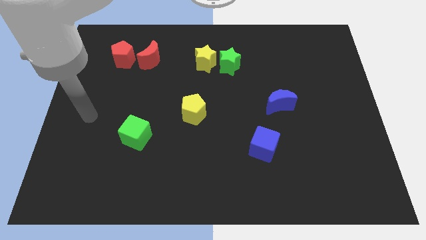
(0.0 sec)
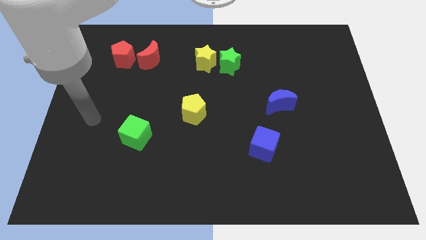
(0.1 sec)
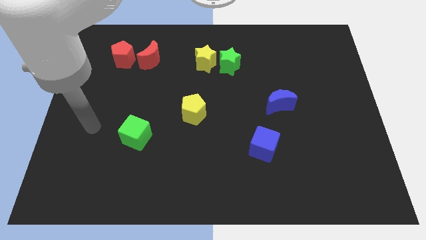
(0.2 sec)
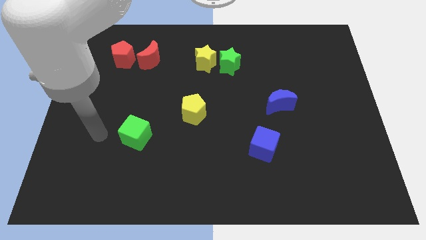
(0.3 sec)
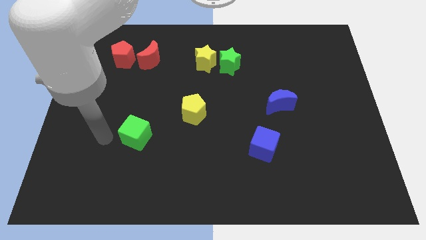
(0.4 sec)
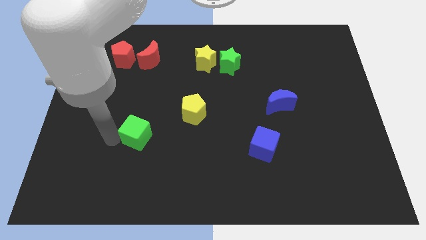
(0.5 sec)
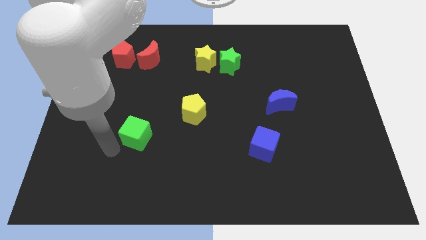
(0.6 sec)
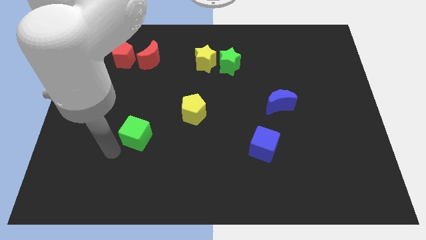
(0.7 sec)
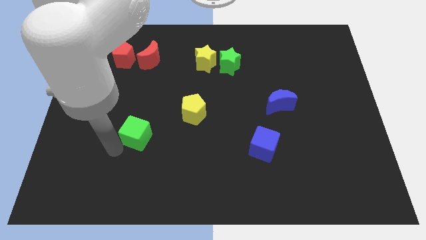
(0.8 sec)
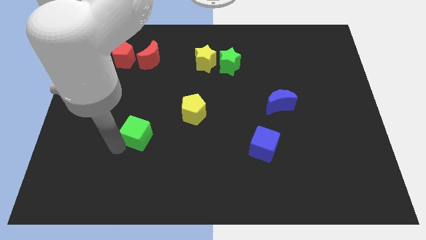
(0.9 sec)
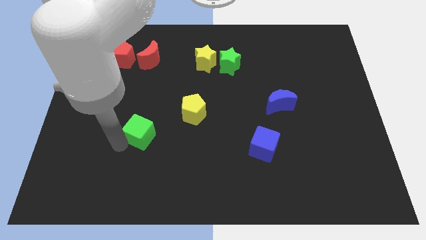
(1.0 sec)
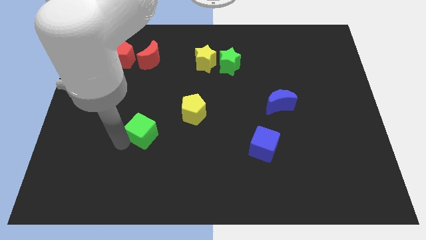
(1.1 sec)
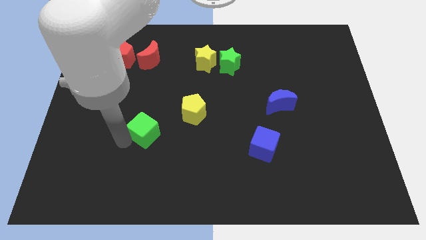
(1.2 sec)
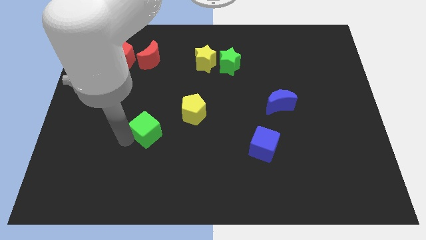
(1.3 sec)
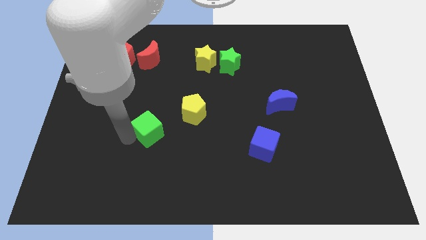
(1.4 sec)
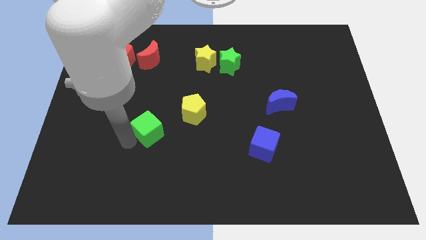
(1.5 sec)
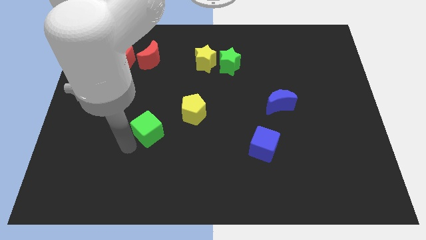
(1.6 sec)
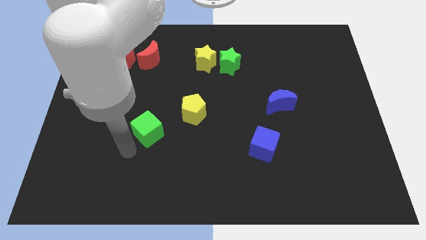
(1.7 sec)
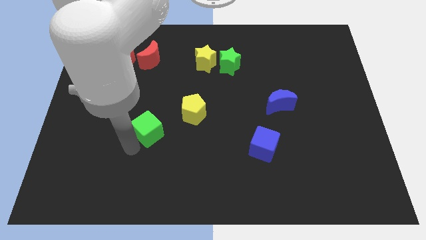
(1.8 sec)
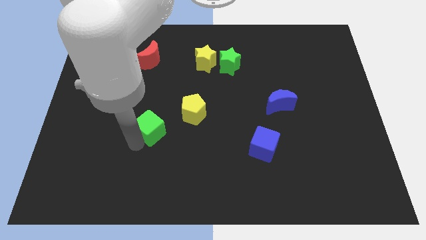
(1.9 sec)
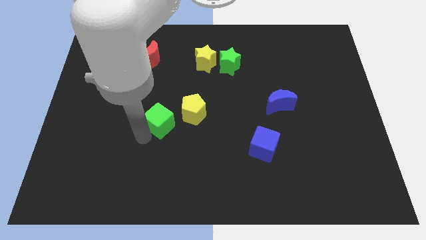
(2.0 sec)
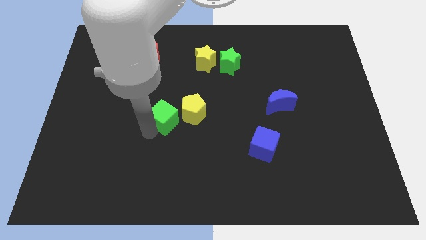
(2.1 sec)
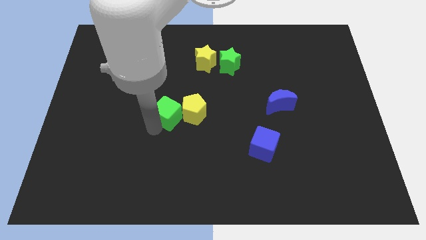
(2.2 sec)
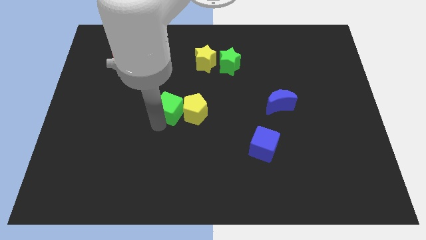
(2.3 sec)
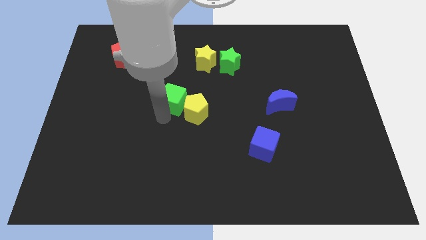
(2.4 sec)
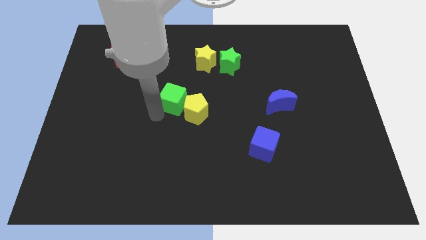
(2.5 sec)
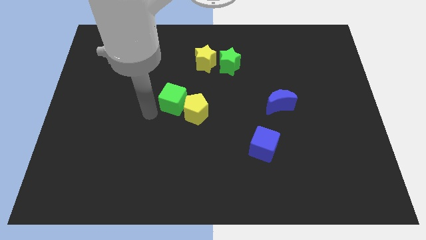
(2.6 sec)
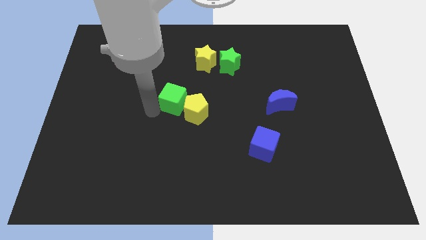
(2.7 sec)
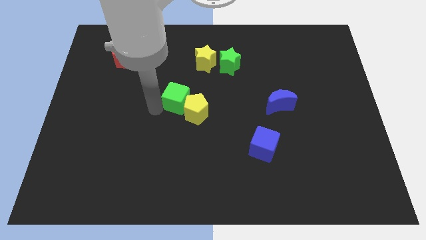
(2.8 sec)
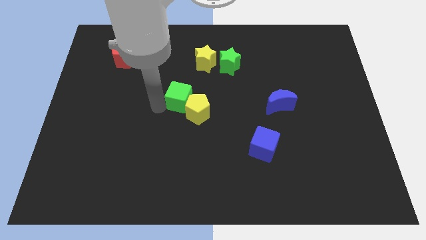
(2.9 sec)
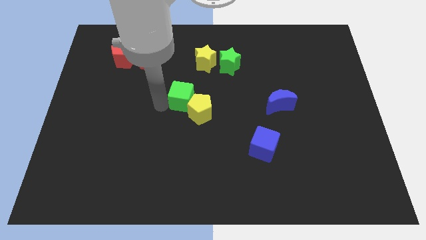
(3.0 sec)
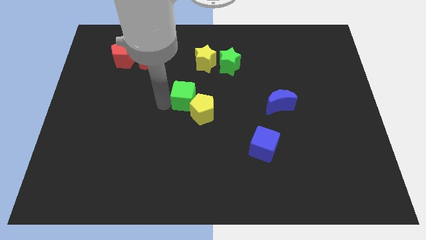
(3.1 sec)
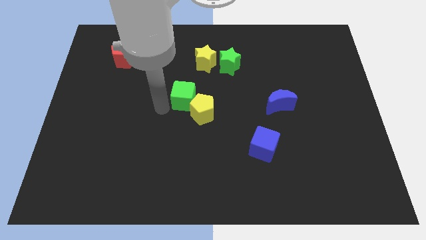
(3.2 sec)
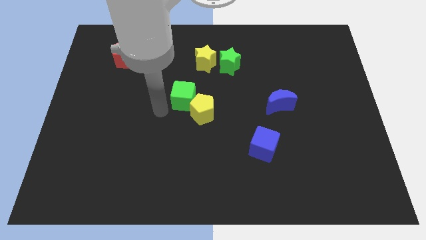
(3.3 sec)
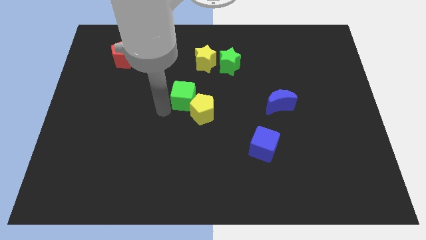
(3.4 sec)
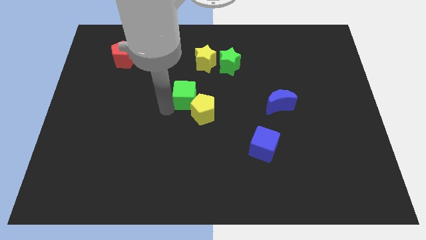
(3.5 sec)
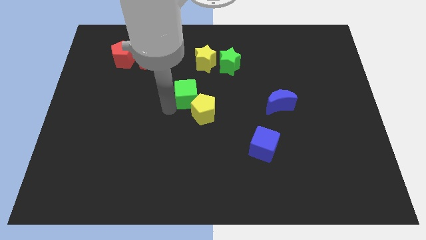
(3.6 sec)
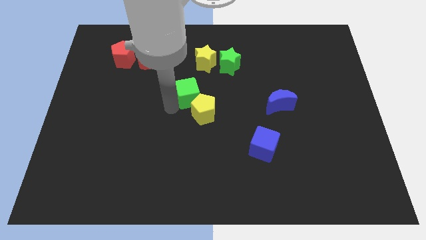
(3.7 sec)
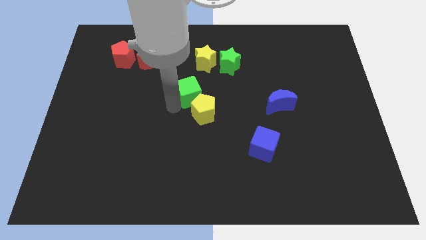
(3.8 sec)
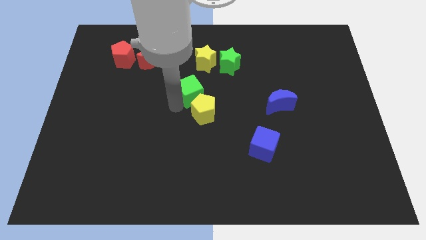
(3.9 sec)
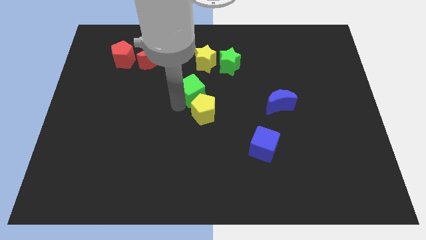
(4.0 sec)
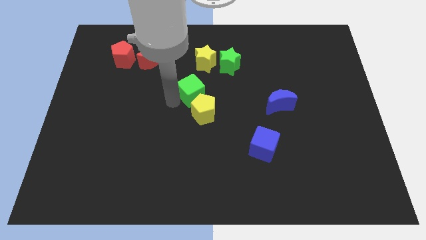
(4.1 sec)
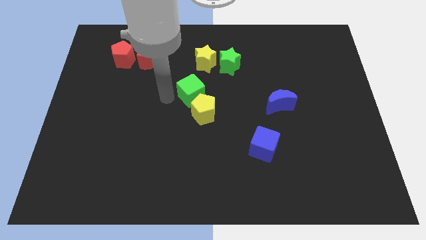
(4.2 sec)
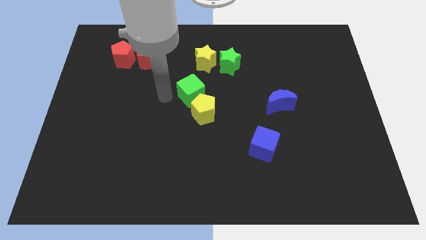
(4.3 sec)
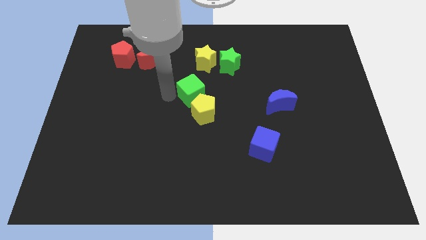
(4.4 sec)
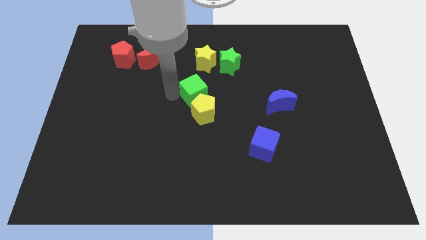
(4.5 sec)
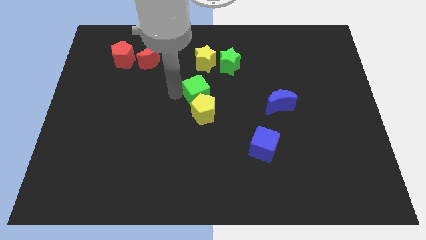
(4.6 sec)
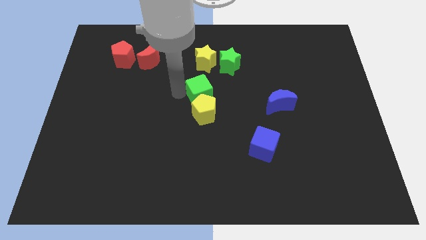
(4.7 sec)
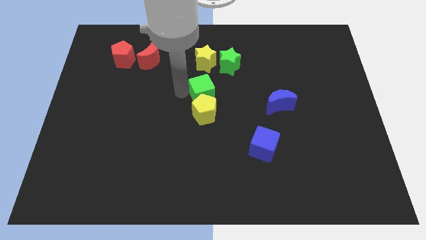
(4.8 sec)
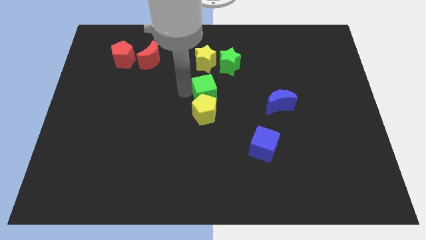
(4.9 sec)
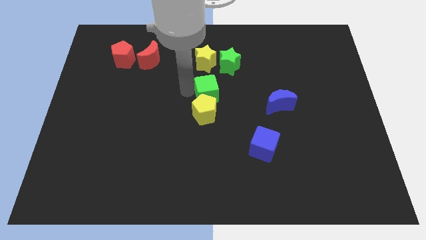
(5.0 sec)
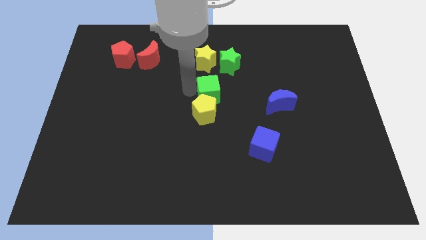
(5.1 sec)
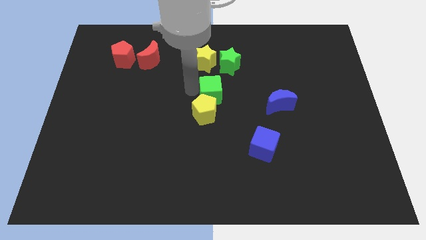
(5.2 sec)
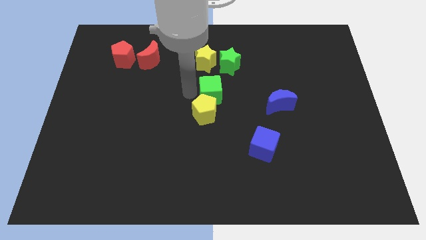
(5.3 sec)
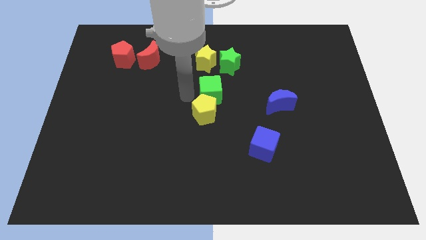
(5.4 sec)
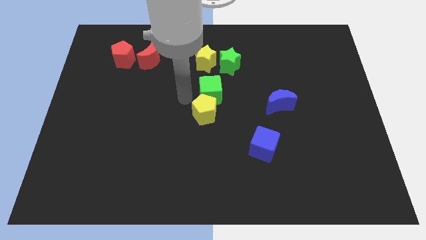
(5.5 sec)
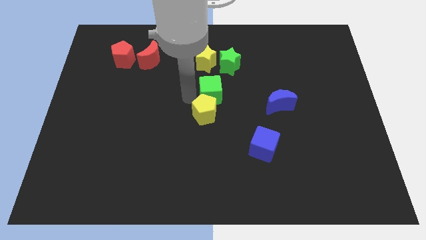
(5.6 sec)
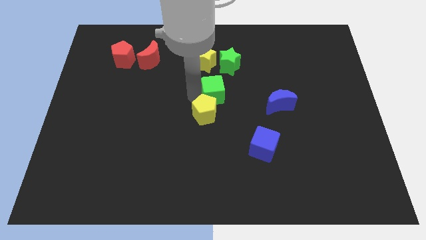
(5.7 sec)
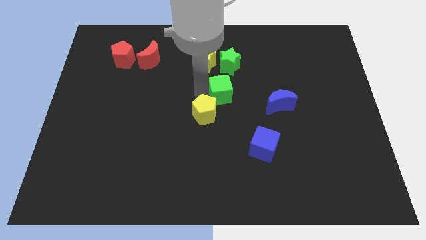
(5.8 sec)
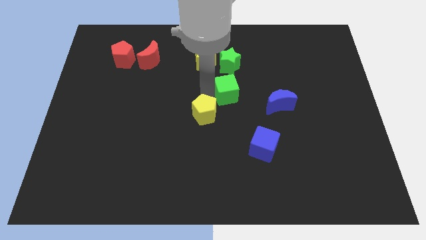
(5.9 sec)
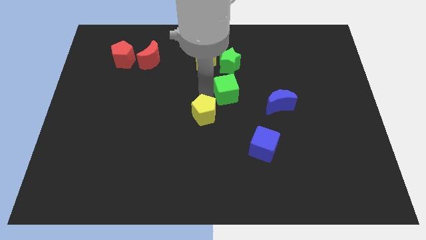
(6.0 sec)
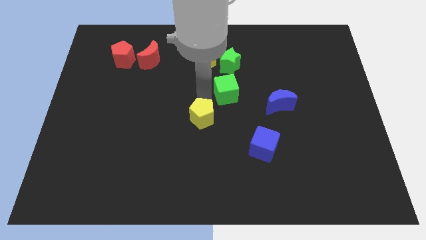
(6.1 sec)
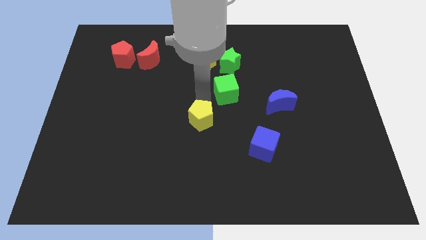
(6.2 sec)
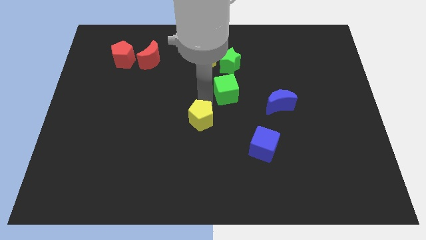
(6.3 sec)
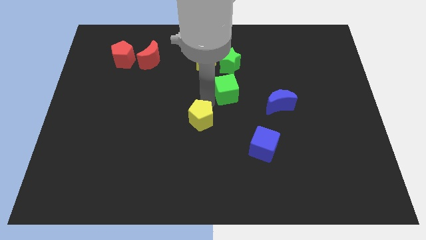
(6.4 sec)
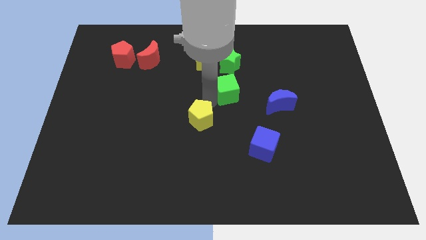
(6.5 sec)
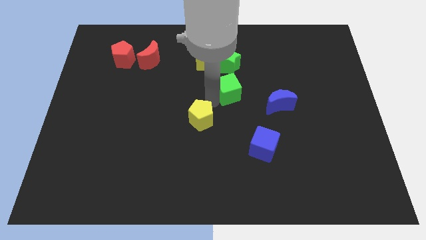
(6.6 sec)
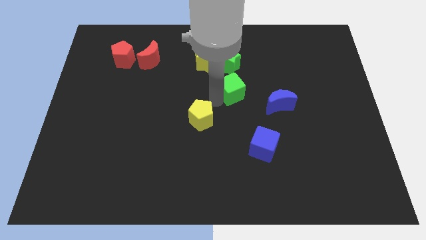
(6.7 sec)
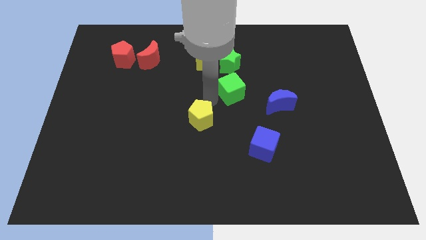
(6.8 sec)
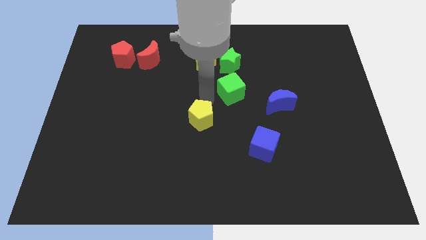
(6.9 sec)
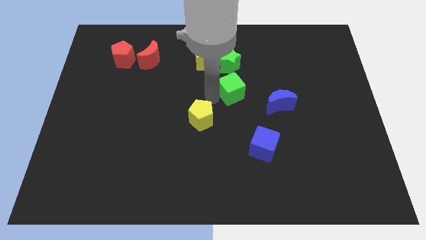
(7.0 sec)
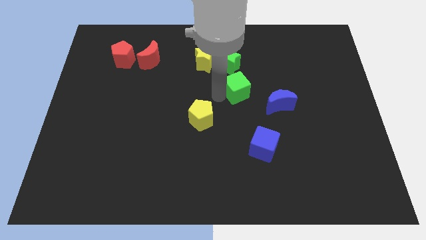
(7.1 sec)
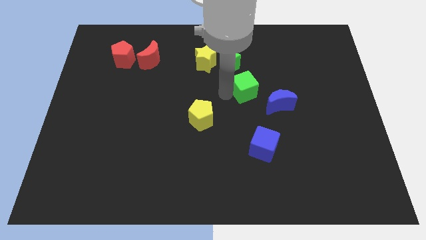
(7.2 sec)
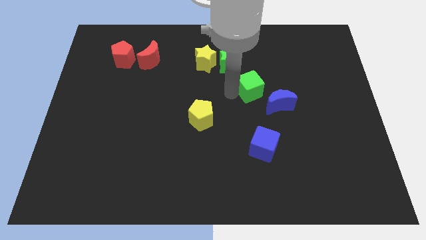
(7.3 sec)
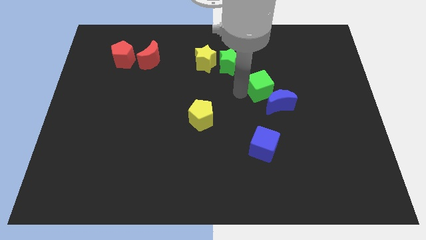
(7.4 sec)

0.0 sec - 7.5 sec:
slide the green cube to the top of the blue moon
